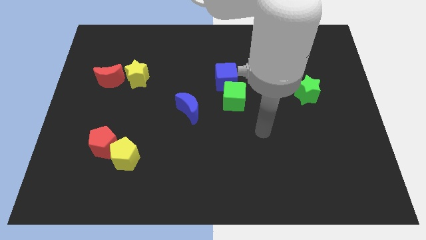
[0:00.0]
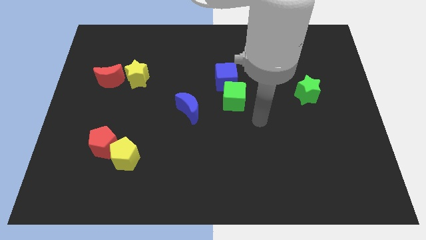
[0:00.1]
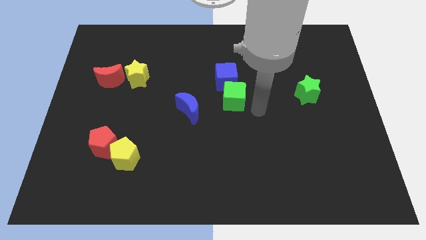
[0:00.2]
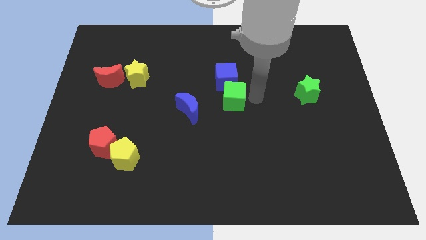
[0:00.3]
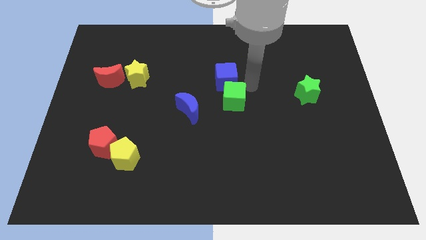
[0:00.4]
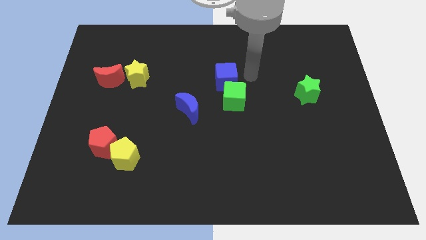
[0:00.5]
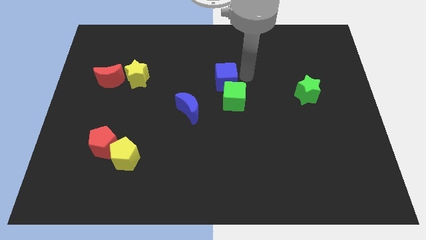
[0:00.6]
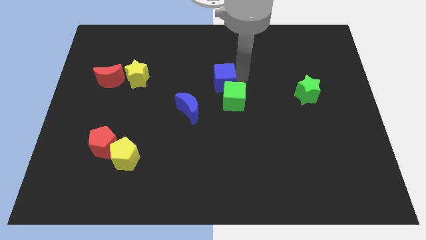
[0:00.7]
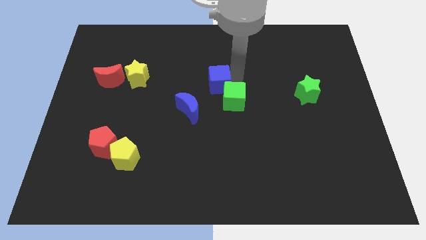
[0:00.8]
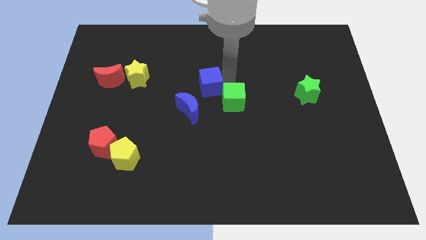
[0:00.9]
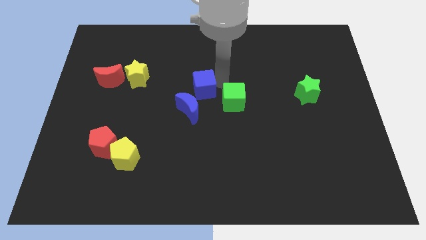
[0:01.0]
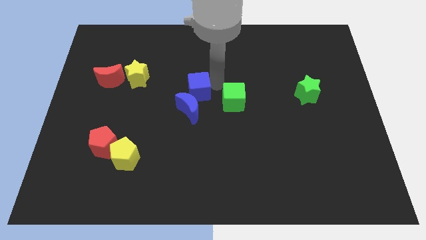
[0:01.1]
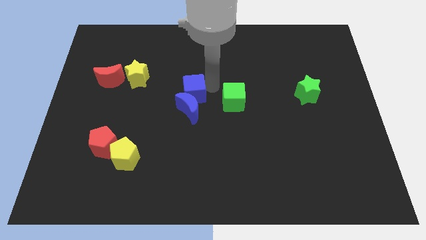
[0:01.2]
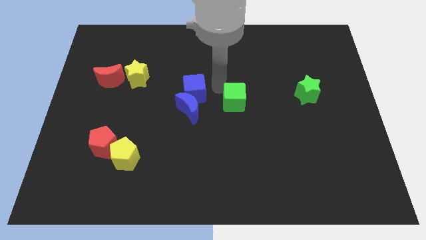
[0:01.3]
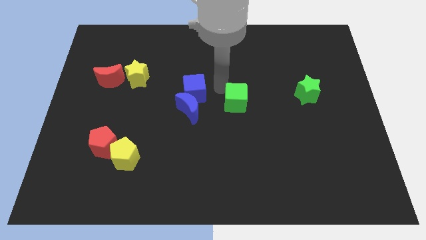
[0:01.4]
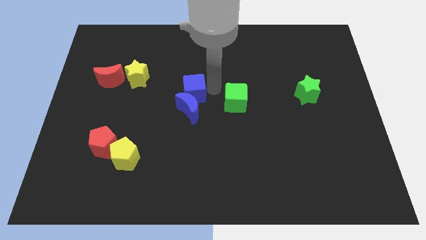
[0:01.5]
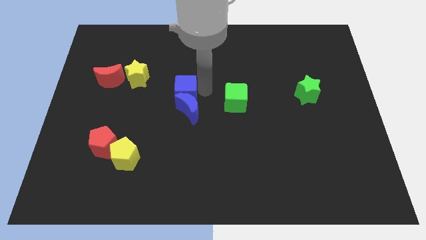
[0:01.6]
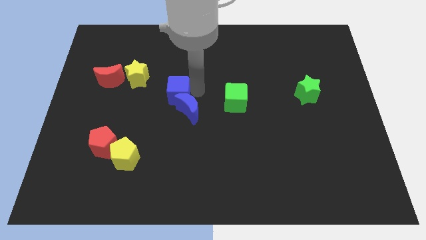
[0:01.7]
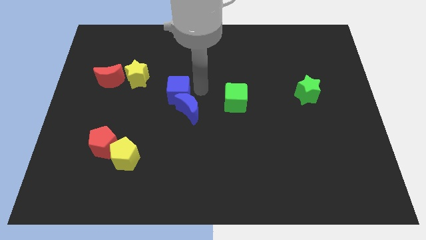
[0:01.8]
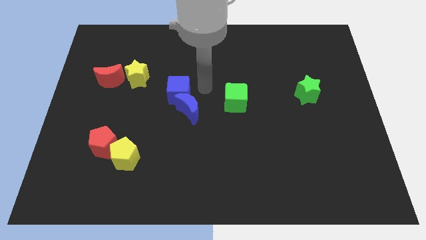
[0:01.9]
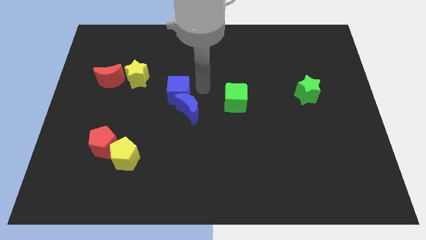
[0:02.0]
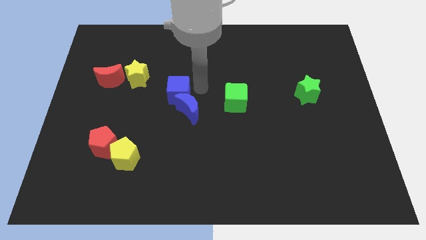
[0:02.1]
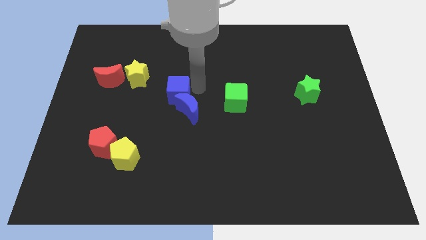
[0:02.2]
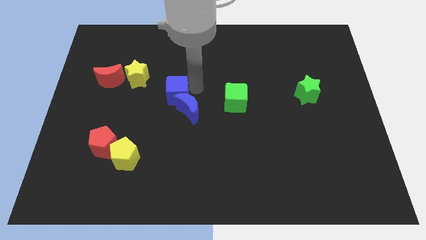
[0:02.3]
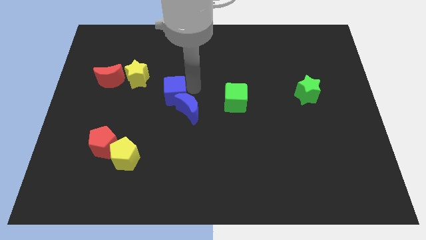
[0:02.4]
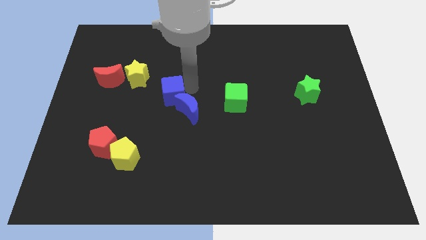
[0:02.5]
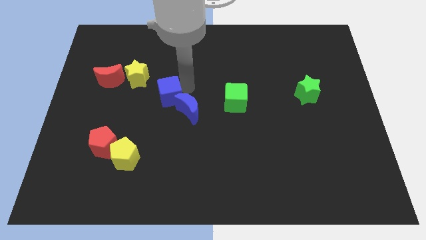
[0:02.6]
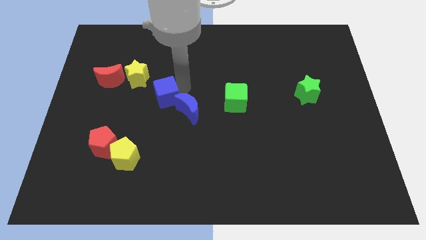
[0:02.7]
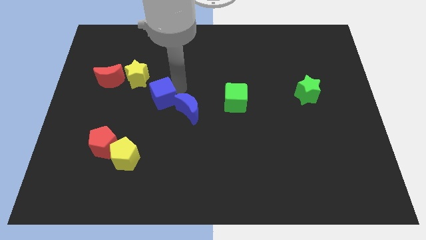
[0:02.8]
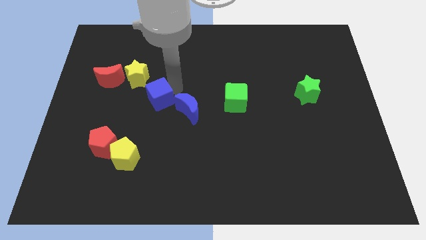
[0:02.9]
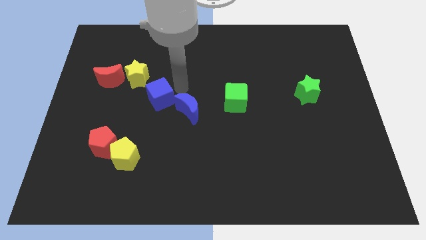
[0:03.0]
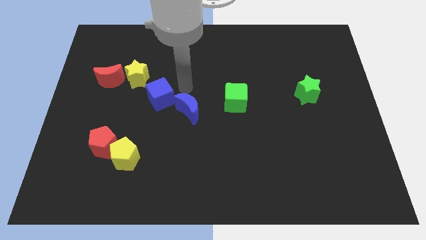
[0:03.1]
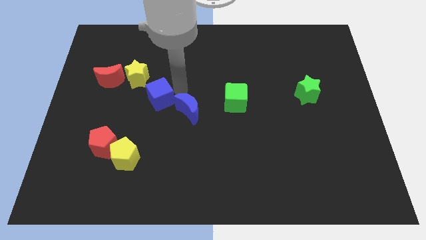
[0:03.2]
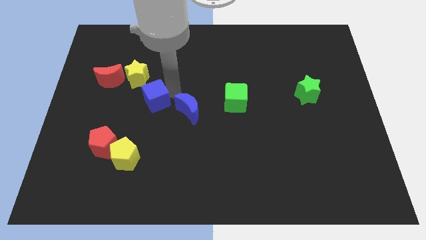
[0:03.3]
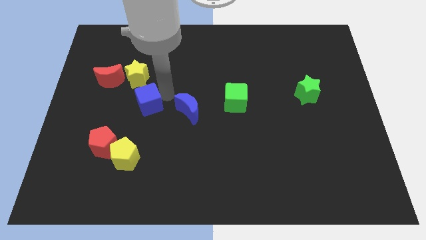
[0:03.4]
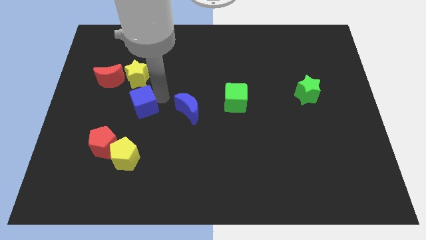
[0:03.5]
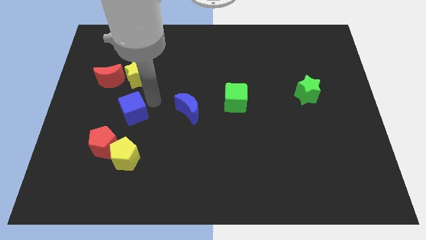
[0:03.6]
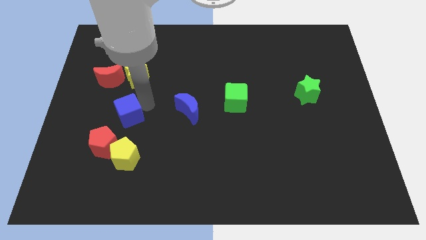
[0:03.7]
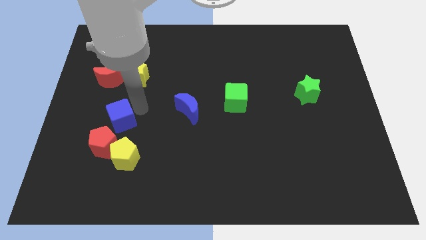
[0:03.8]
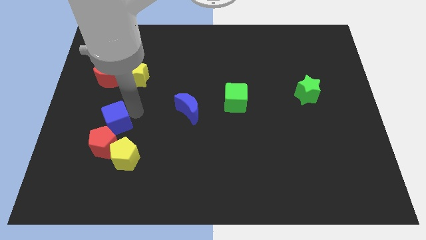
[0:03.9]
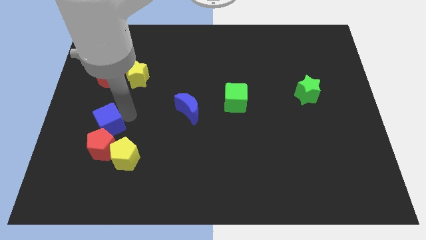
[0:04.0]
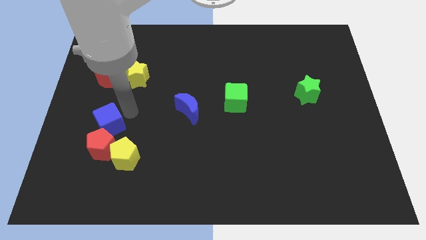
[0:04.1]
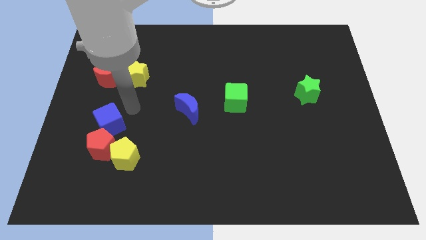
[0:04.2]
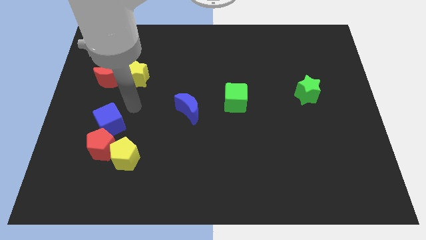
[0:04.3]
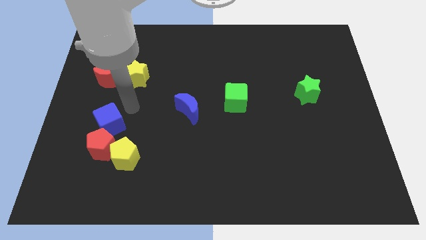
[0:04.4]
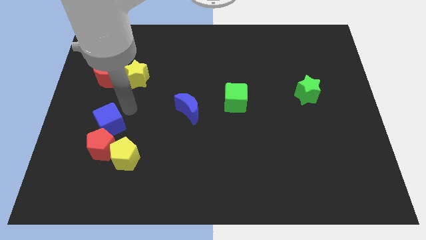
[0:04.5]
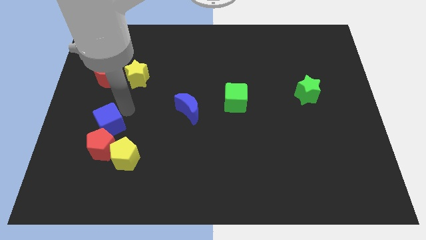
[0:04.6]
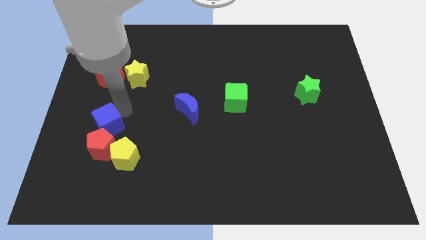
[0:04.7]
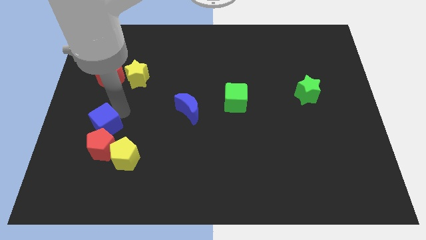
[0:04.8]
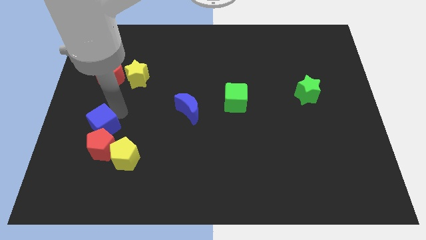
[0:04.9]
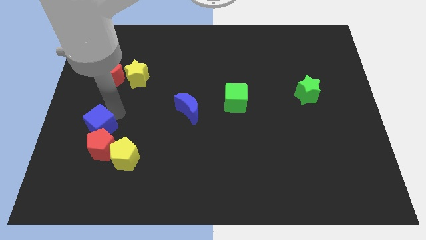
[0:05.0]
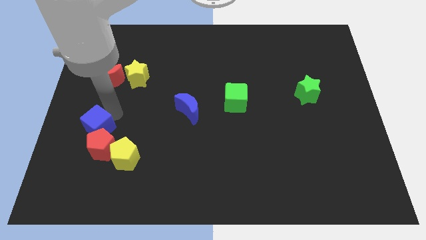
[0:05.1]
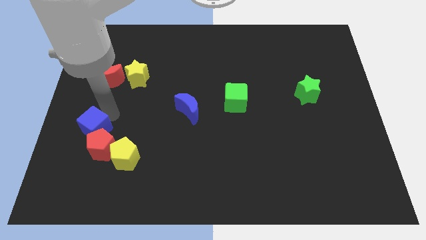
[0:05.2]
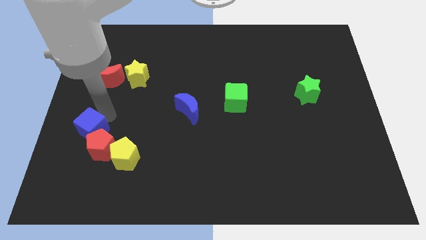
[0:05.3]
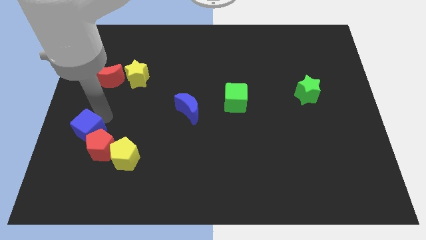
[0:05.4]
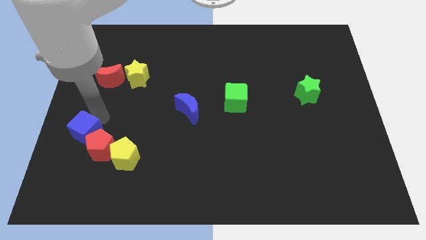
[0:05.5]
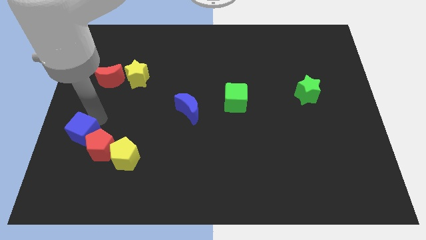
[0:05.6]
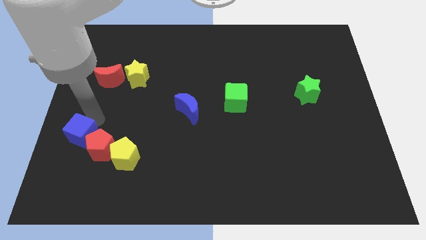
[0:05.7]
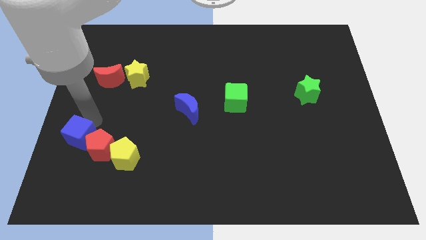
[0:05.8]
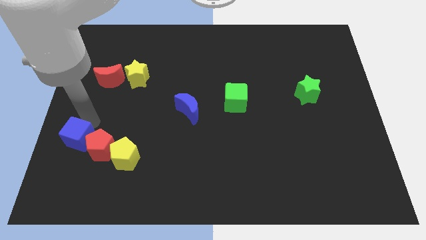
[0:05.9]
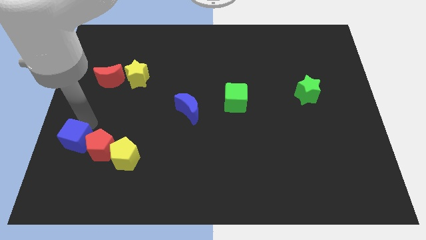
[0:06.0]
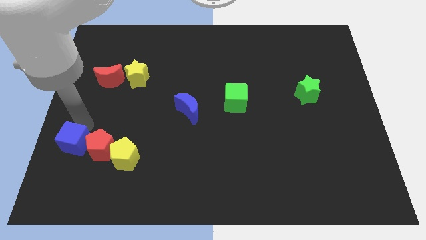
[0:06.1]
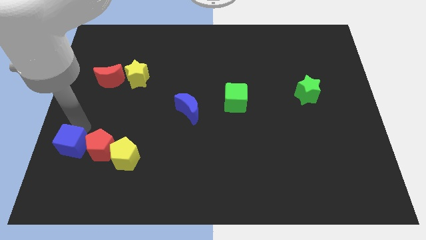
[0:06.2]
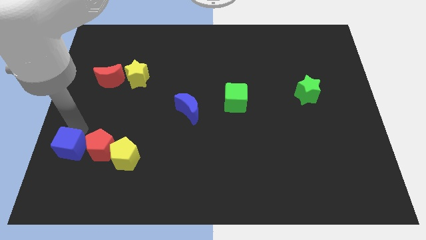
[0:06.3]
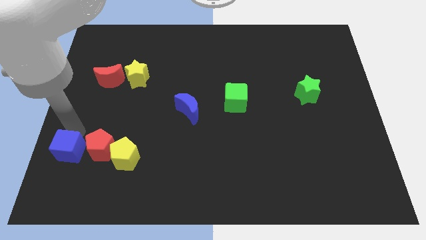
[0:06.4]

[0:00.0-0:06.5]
move the blue cube to the bottom left of the red pentagon
